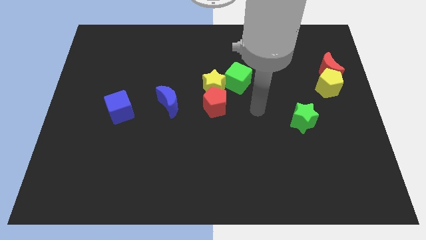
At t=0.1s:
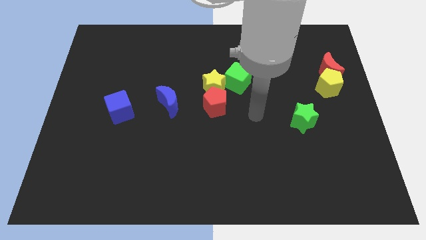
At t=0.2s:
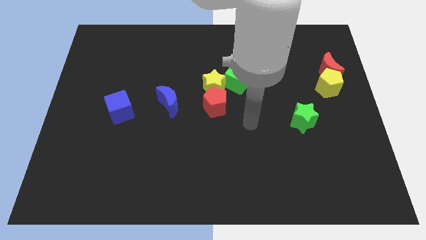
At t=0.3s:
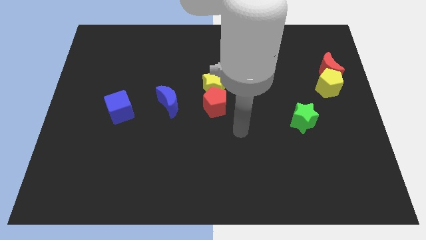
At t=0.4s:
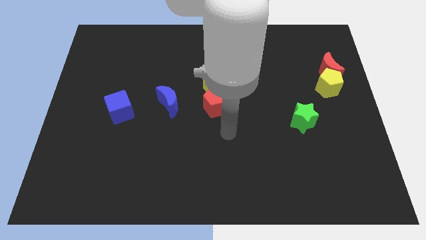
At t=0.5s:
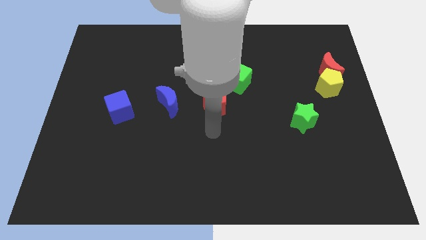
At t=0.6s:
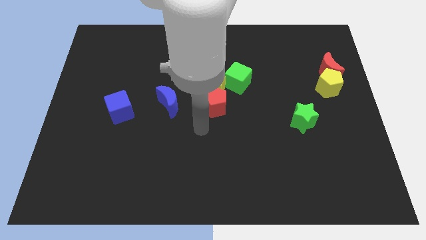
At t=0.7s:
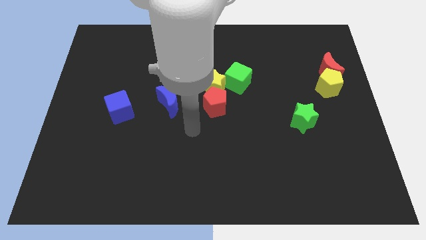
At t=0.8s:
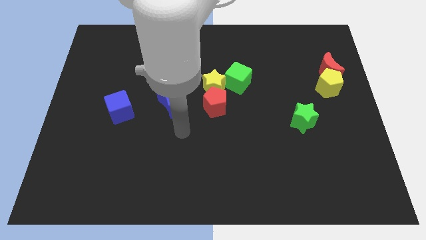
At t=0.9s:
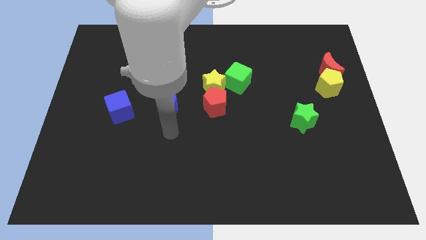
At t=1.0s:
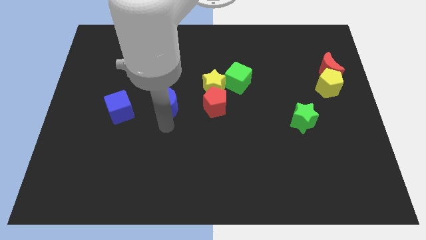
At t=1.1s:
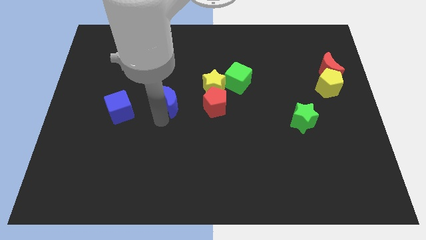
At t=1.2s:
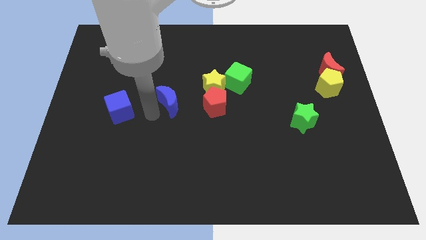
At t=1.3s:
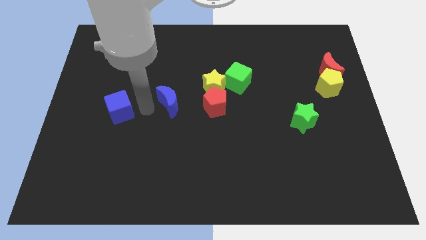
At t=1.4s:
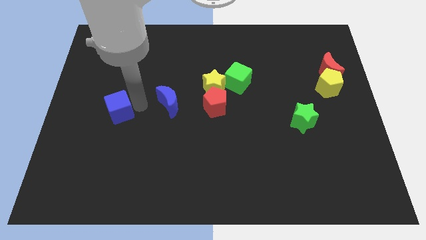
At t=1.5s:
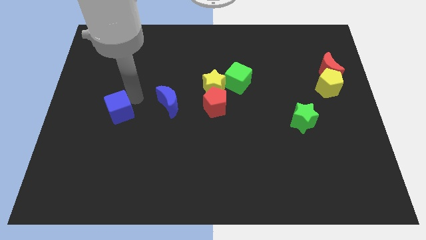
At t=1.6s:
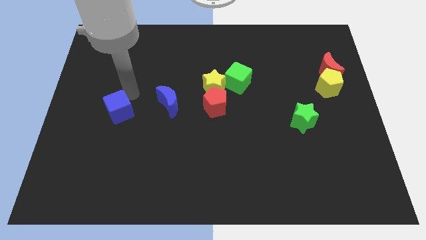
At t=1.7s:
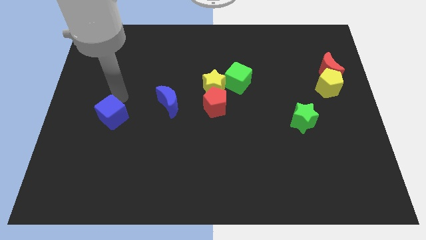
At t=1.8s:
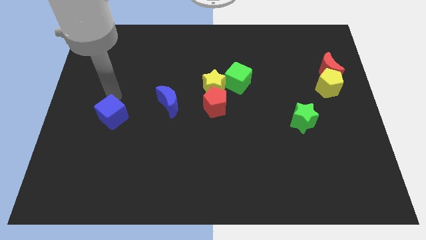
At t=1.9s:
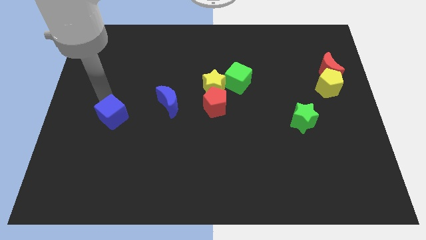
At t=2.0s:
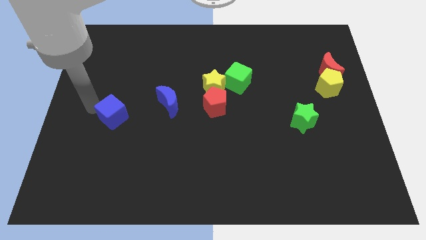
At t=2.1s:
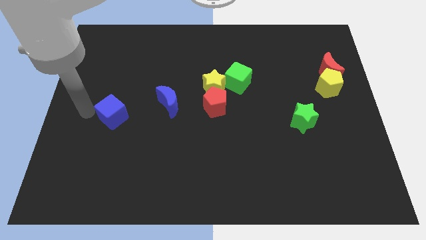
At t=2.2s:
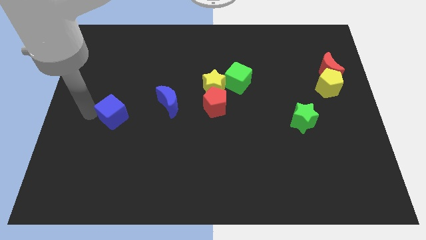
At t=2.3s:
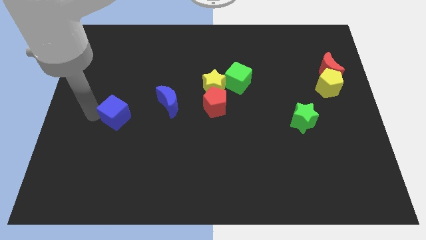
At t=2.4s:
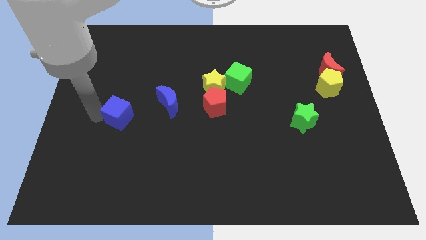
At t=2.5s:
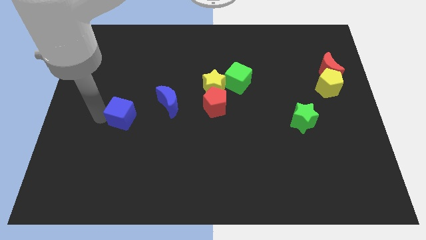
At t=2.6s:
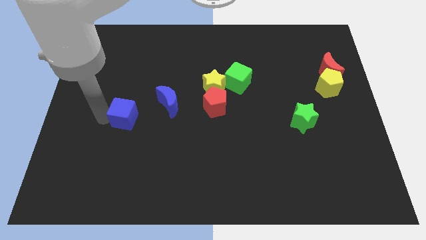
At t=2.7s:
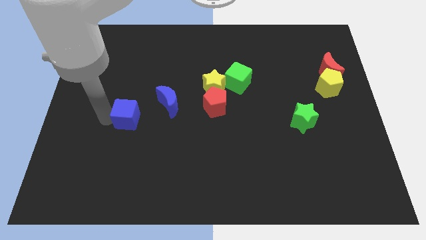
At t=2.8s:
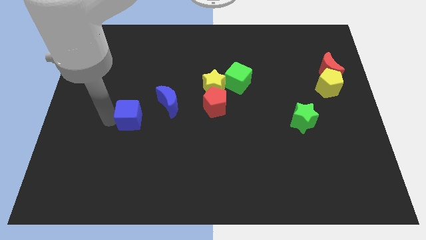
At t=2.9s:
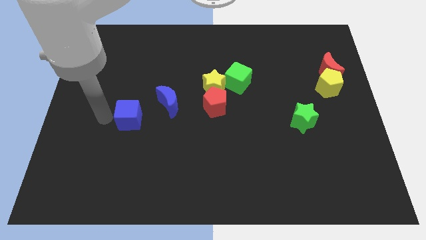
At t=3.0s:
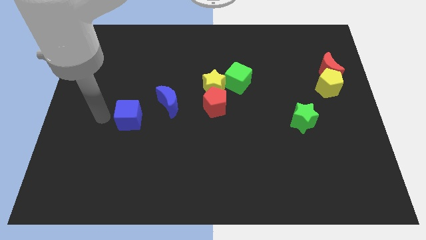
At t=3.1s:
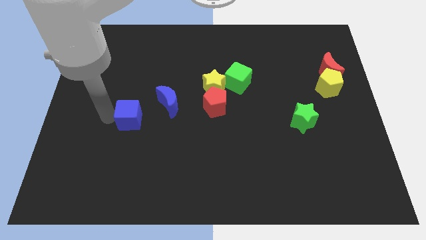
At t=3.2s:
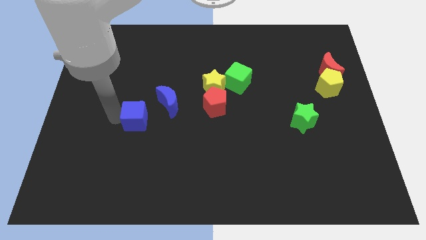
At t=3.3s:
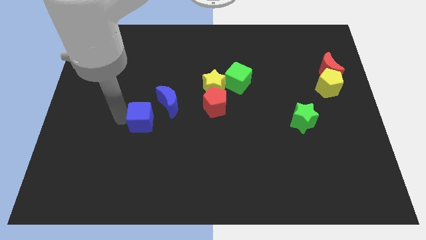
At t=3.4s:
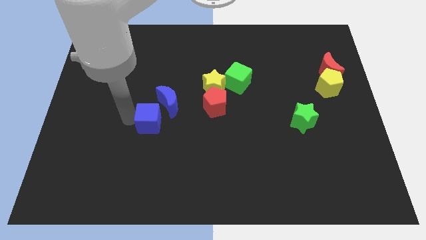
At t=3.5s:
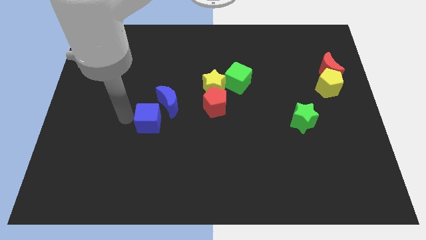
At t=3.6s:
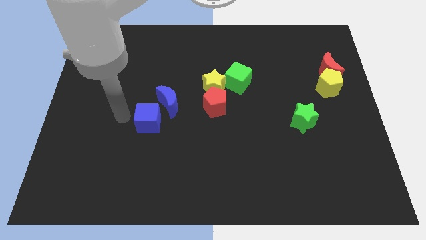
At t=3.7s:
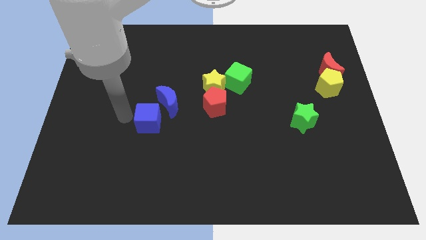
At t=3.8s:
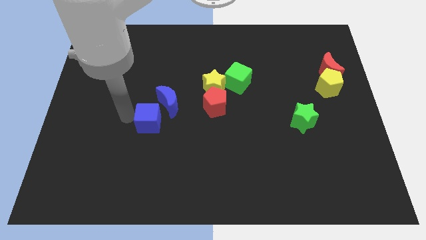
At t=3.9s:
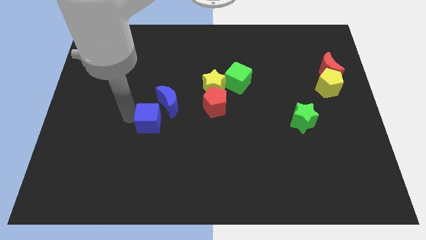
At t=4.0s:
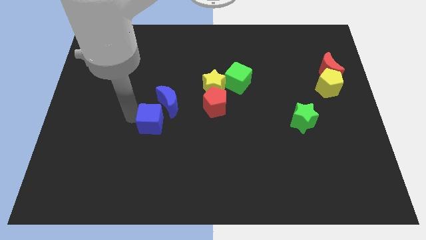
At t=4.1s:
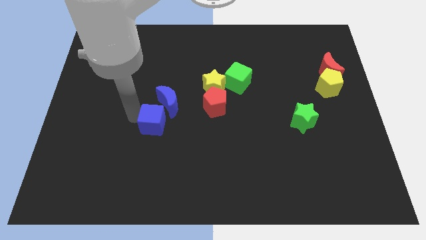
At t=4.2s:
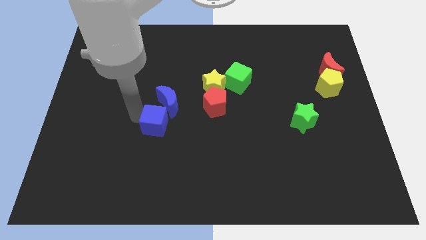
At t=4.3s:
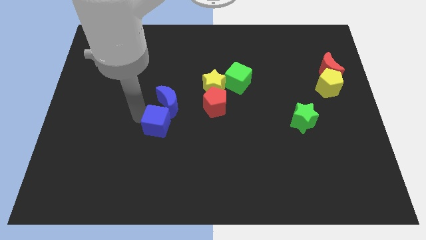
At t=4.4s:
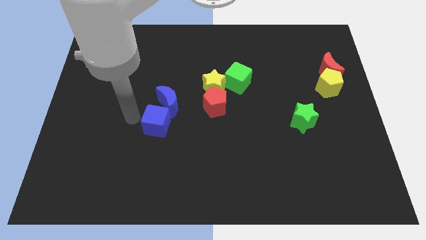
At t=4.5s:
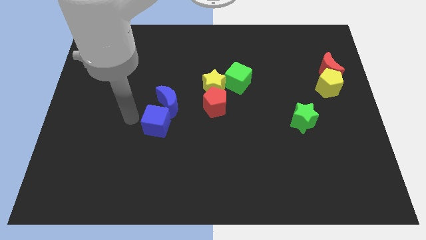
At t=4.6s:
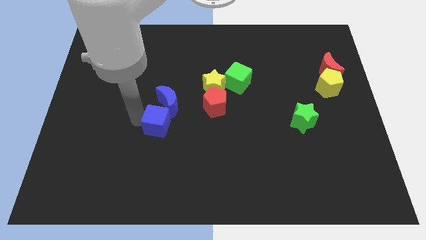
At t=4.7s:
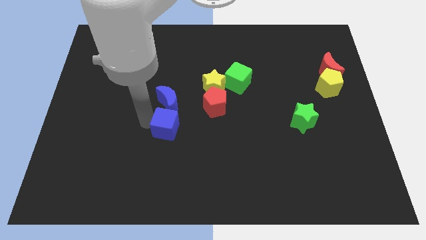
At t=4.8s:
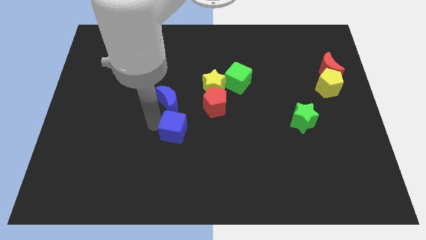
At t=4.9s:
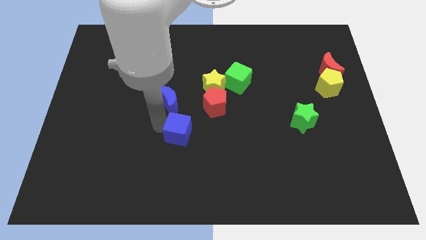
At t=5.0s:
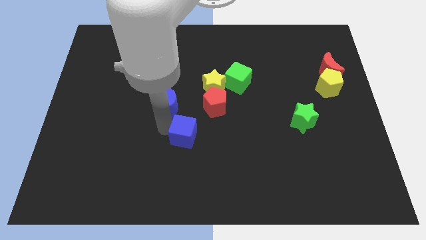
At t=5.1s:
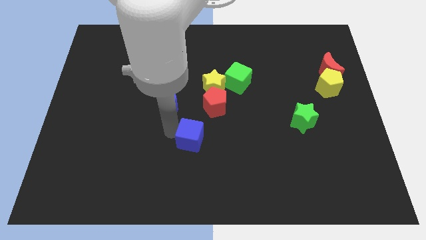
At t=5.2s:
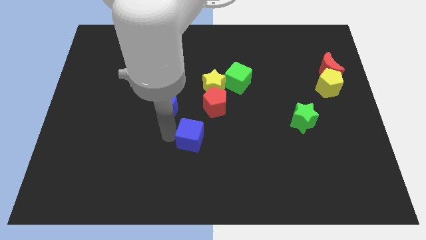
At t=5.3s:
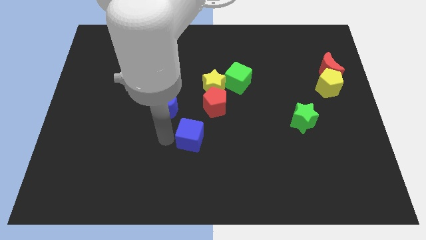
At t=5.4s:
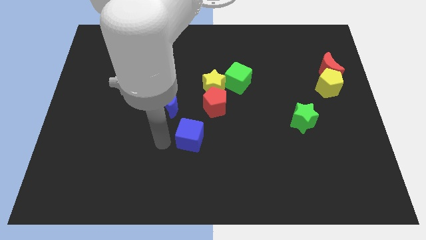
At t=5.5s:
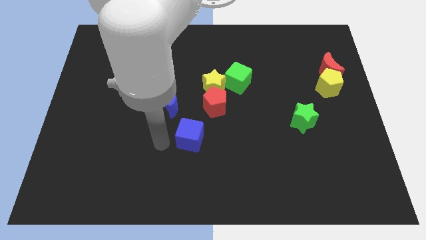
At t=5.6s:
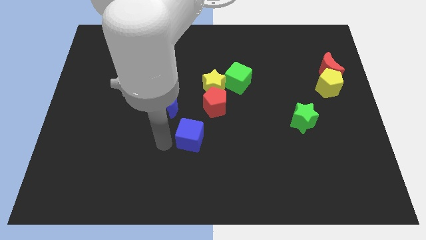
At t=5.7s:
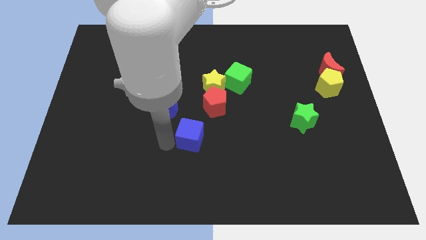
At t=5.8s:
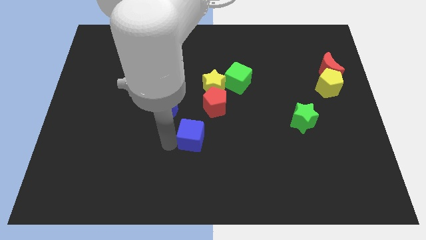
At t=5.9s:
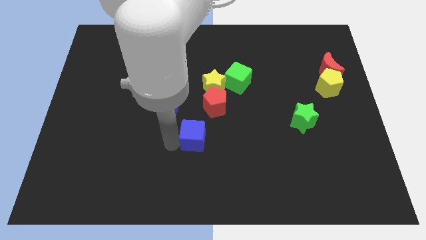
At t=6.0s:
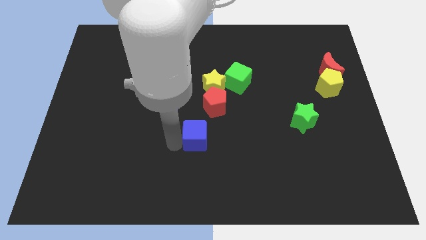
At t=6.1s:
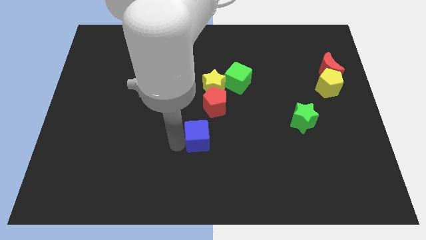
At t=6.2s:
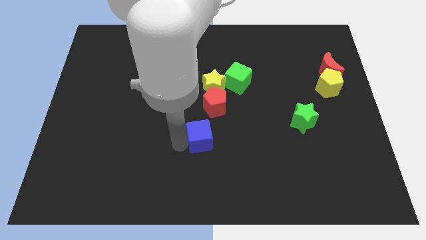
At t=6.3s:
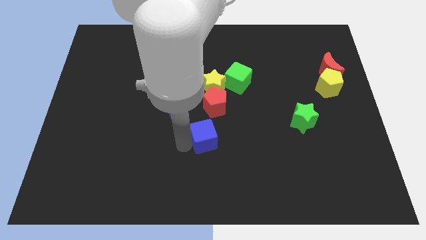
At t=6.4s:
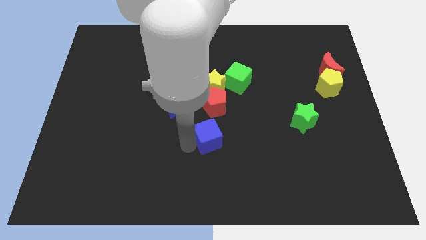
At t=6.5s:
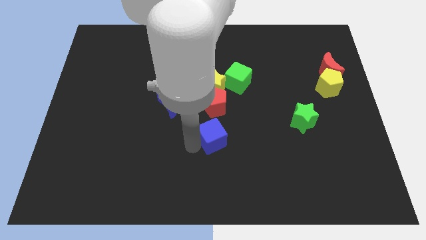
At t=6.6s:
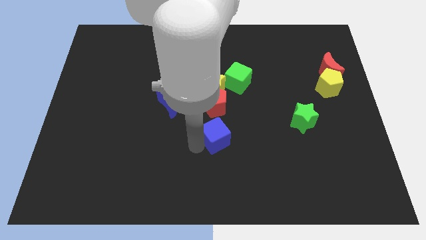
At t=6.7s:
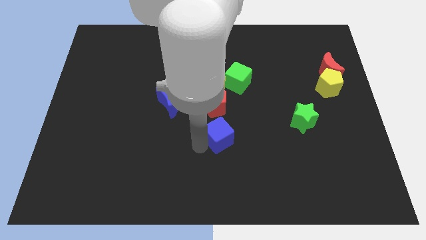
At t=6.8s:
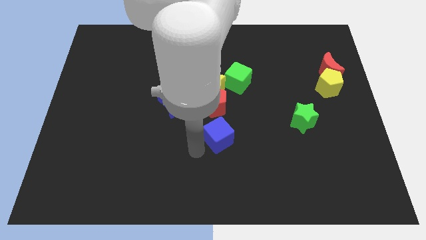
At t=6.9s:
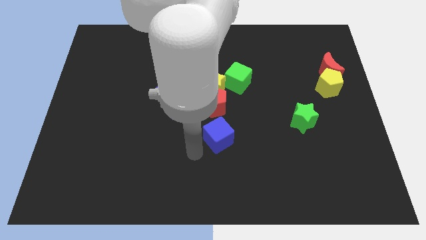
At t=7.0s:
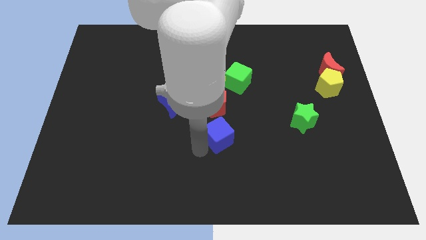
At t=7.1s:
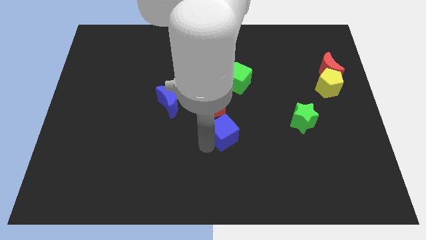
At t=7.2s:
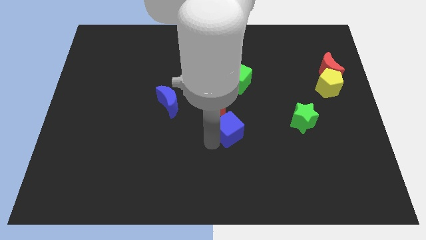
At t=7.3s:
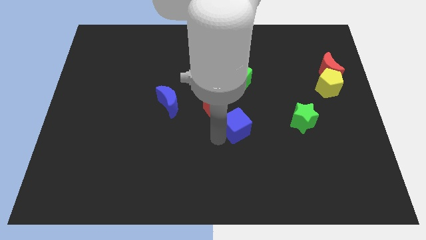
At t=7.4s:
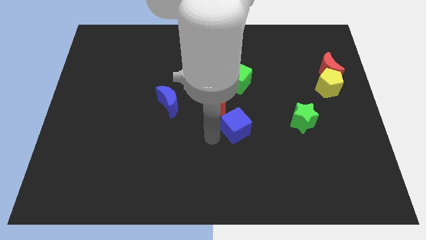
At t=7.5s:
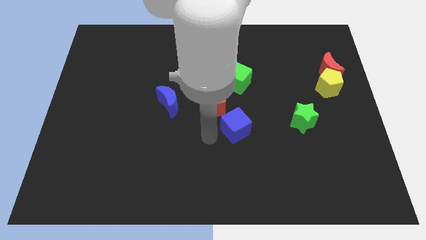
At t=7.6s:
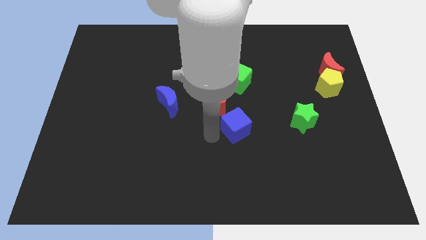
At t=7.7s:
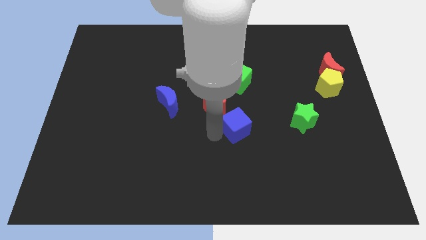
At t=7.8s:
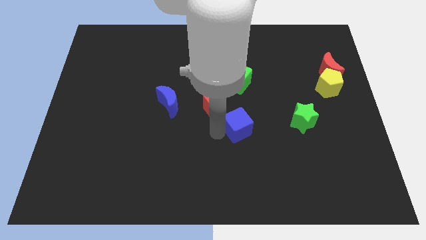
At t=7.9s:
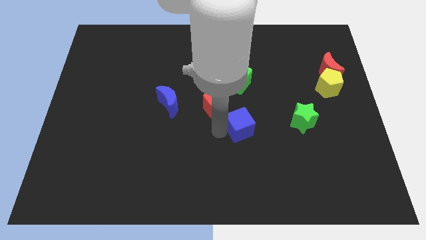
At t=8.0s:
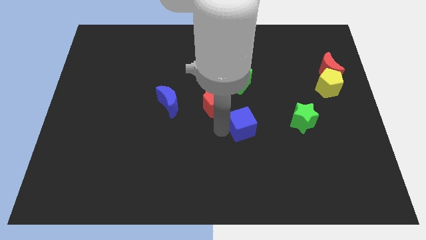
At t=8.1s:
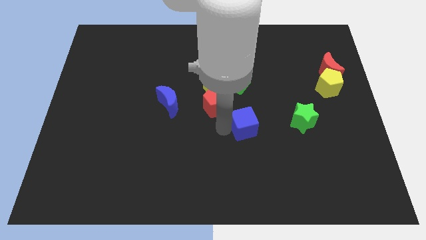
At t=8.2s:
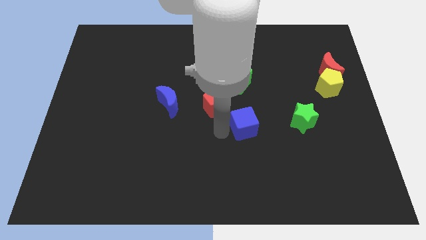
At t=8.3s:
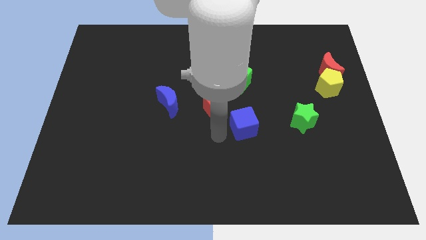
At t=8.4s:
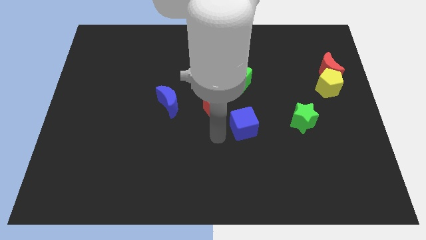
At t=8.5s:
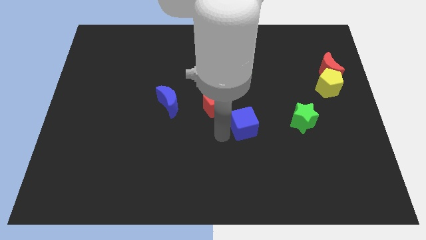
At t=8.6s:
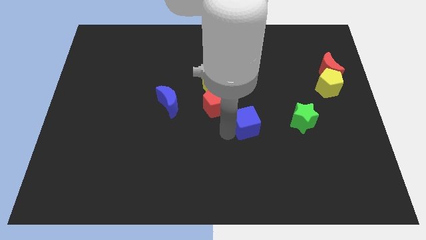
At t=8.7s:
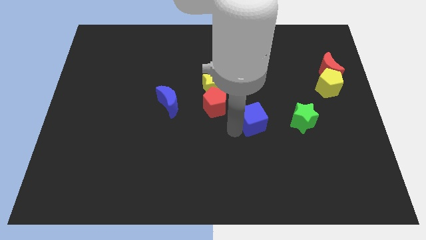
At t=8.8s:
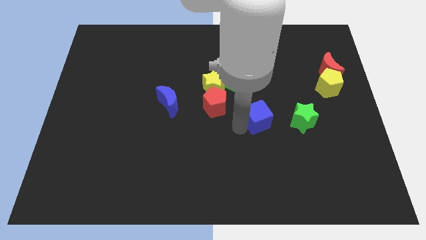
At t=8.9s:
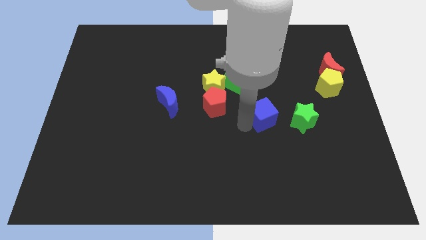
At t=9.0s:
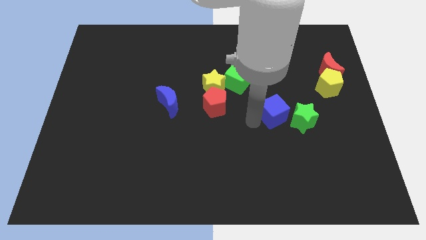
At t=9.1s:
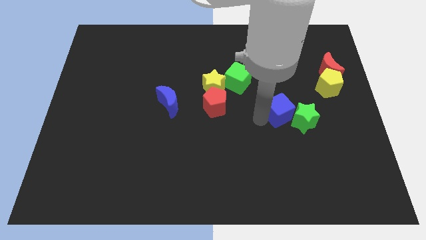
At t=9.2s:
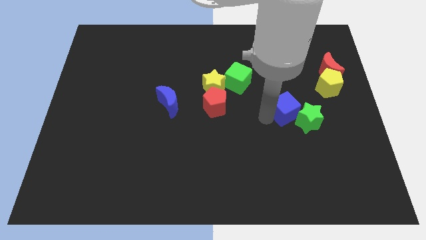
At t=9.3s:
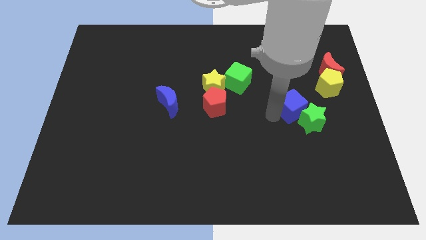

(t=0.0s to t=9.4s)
move the blue cube diagonally down and to the left of the yellow pentagon
